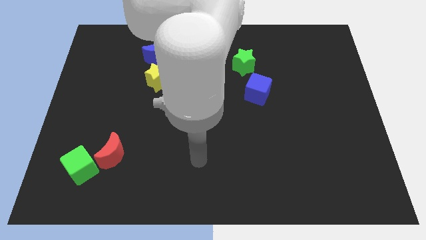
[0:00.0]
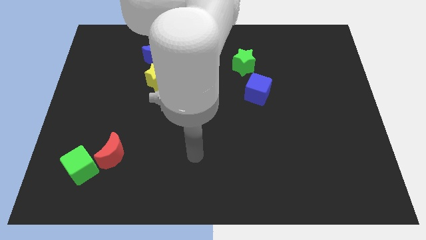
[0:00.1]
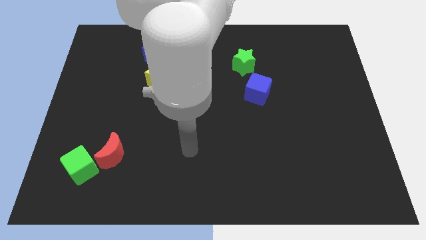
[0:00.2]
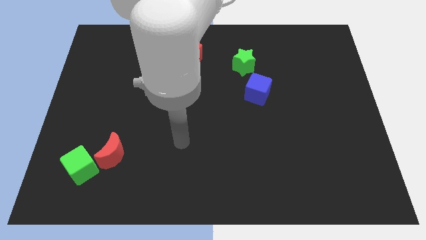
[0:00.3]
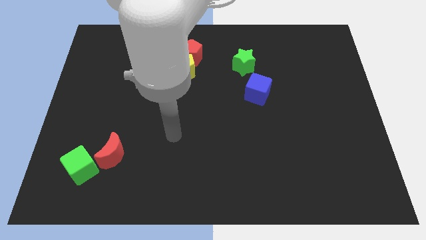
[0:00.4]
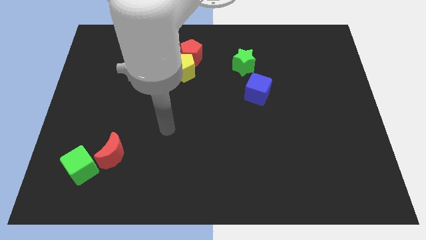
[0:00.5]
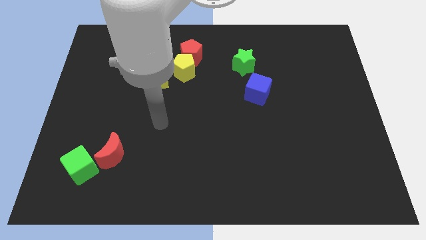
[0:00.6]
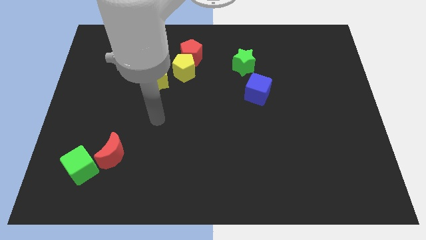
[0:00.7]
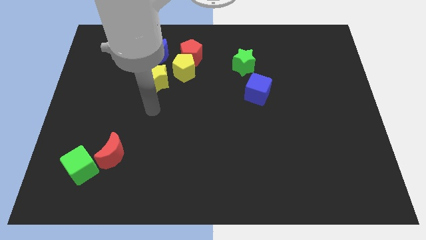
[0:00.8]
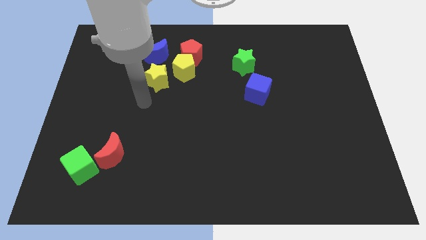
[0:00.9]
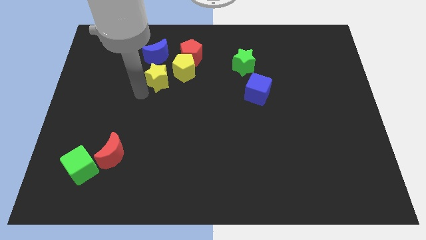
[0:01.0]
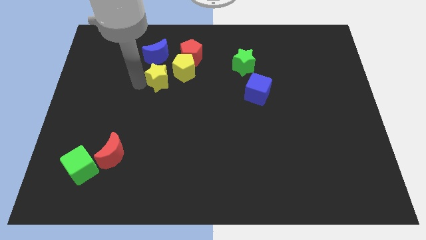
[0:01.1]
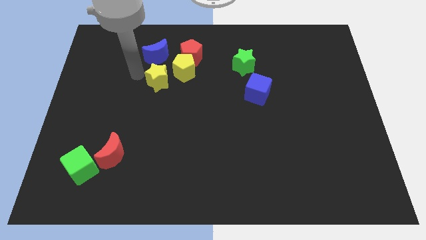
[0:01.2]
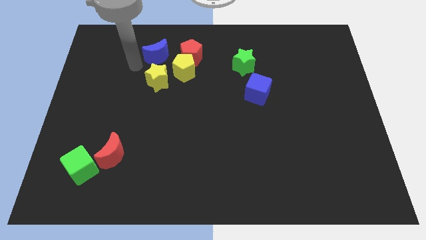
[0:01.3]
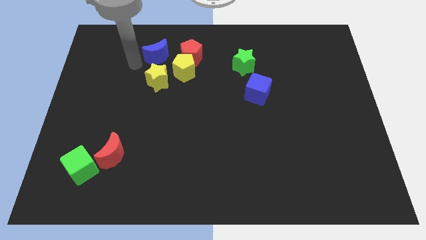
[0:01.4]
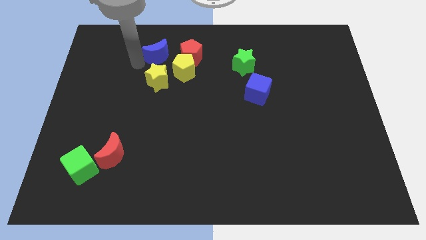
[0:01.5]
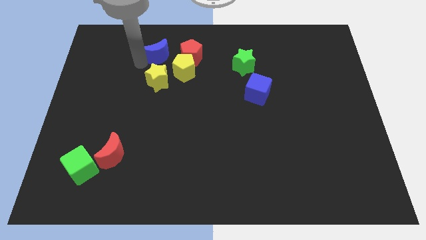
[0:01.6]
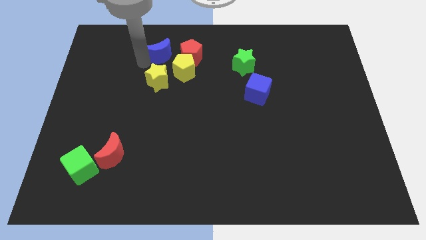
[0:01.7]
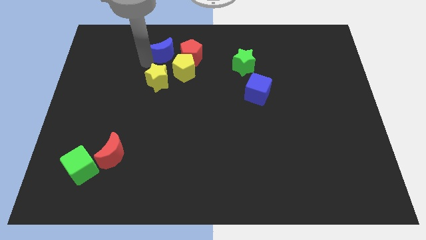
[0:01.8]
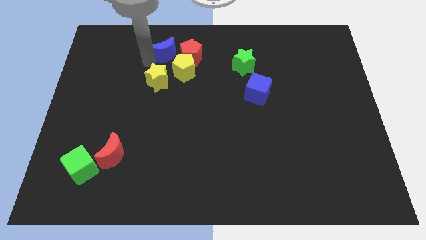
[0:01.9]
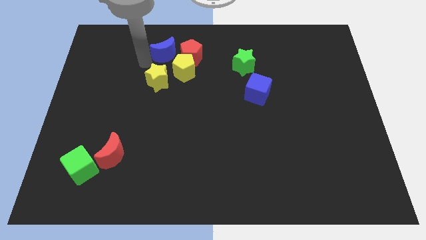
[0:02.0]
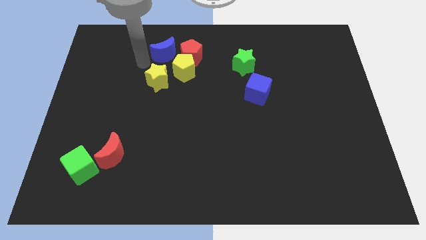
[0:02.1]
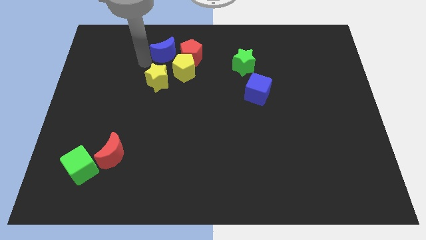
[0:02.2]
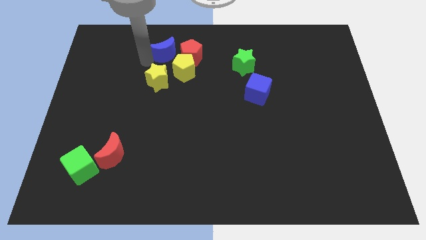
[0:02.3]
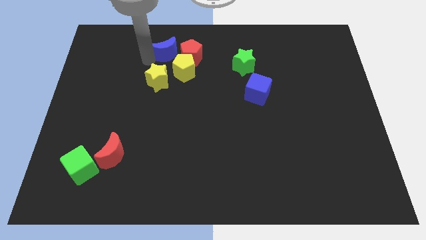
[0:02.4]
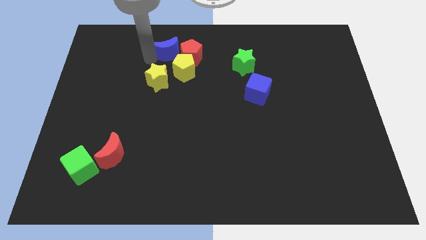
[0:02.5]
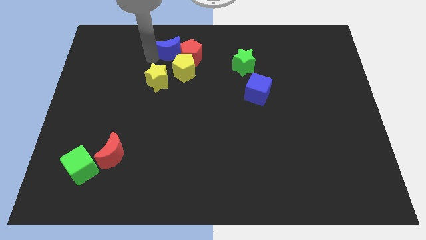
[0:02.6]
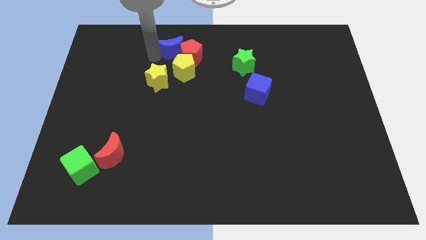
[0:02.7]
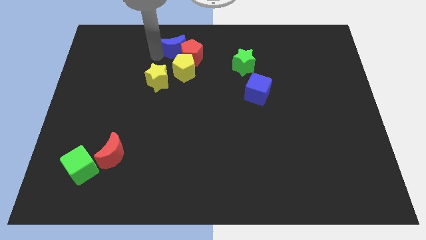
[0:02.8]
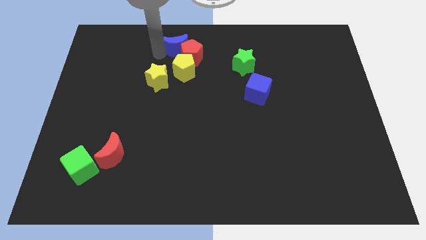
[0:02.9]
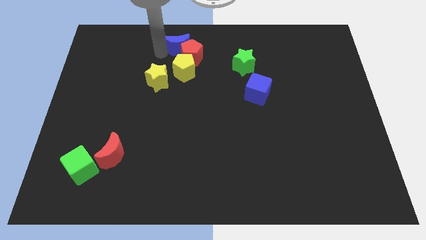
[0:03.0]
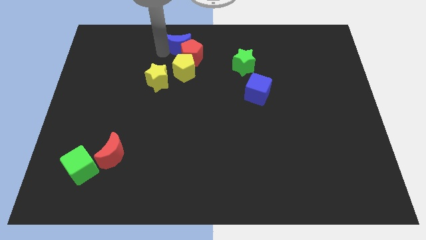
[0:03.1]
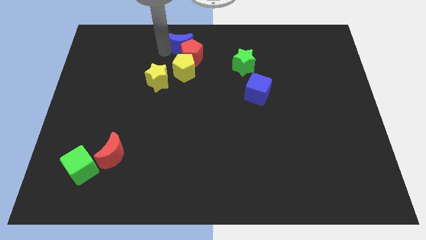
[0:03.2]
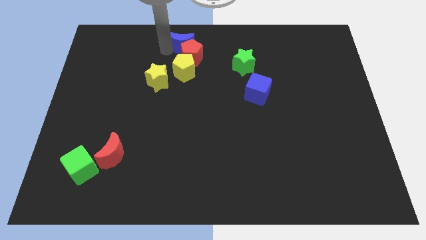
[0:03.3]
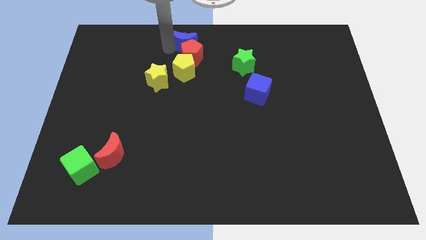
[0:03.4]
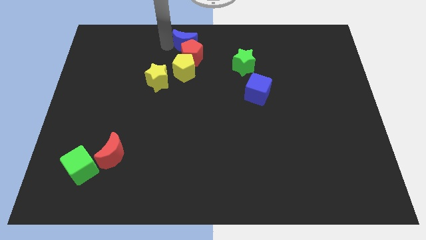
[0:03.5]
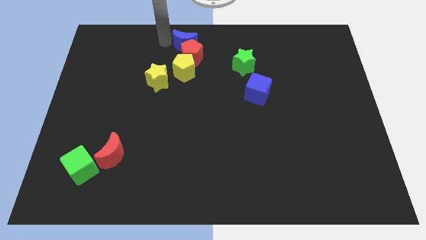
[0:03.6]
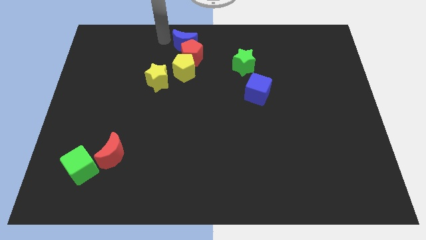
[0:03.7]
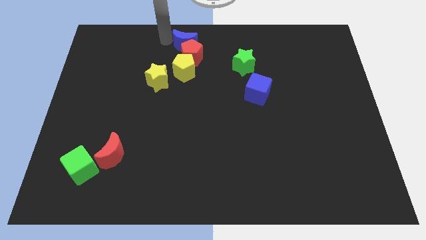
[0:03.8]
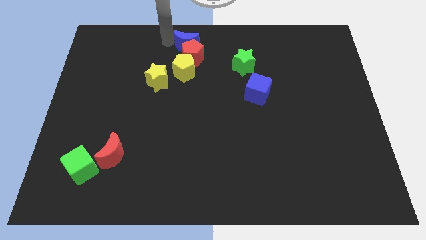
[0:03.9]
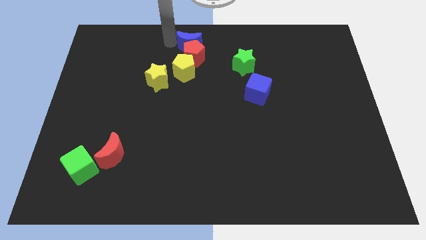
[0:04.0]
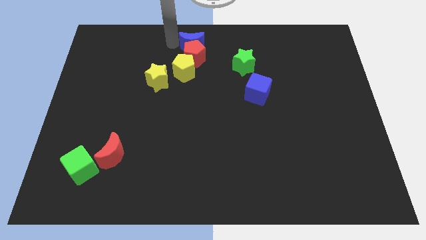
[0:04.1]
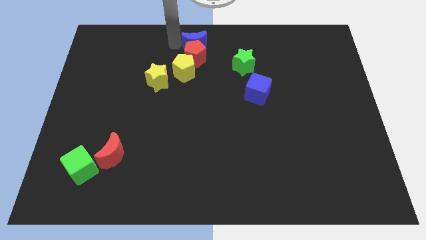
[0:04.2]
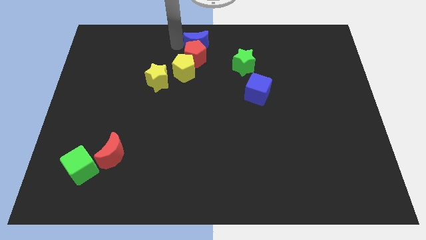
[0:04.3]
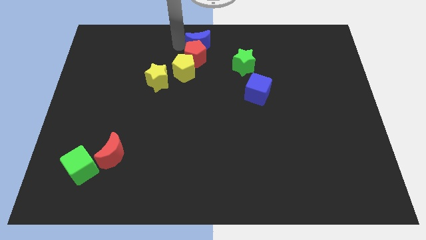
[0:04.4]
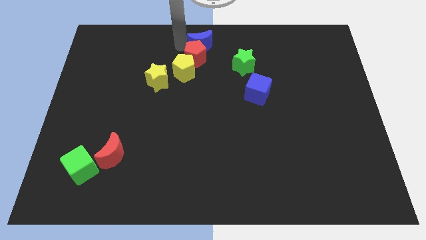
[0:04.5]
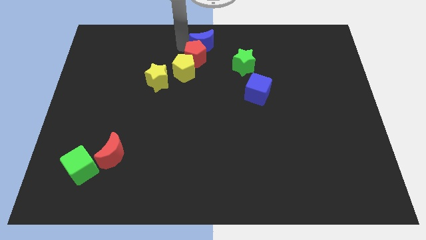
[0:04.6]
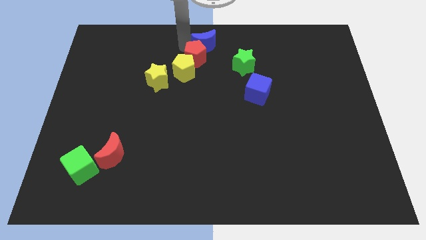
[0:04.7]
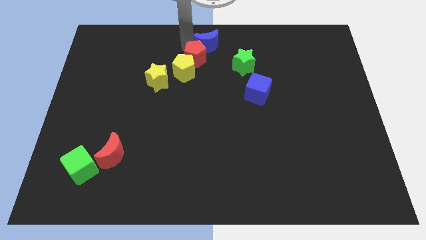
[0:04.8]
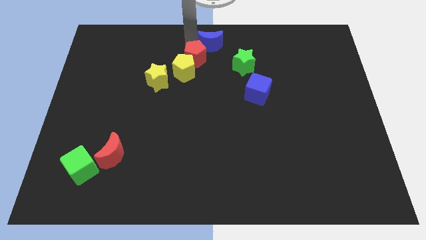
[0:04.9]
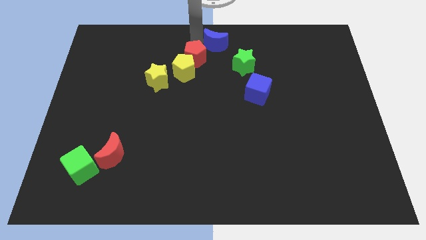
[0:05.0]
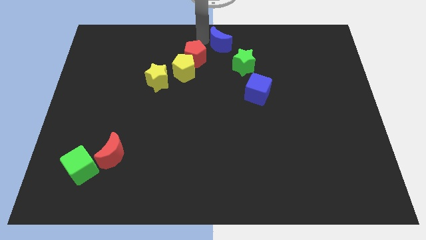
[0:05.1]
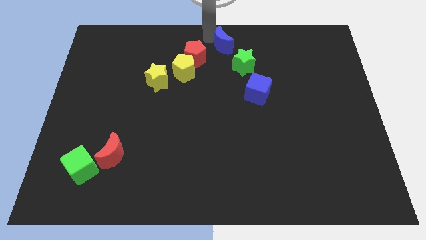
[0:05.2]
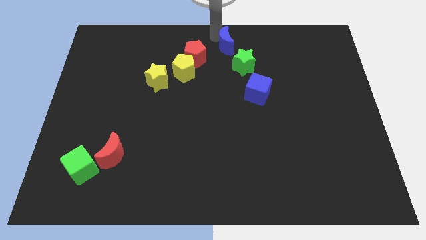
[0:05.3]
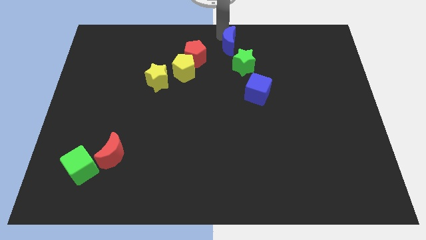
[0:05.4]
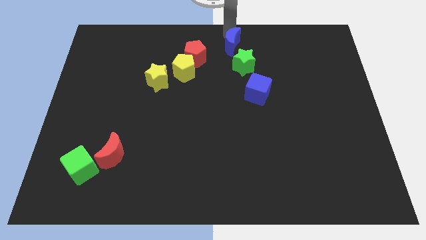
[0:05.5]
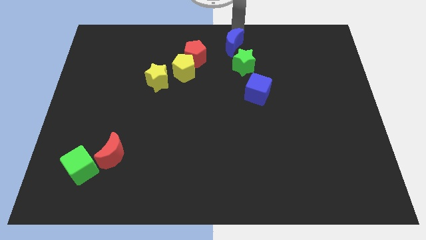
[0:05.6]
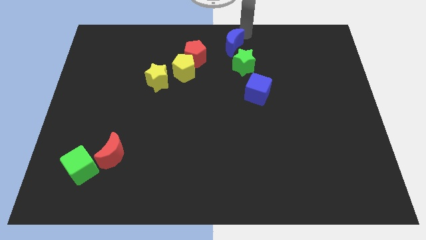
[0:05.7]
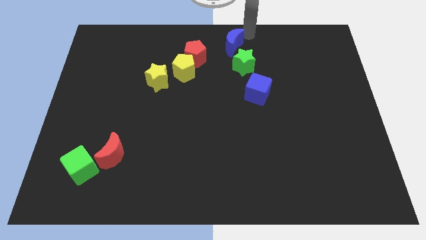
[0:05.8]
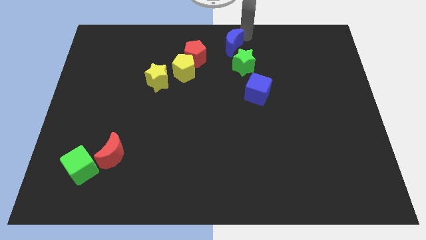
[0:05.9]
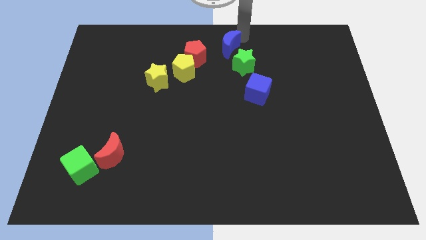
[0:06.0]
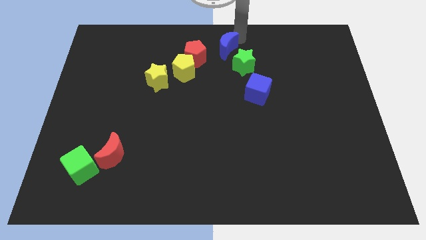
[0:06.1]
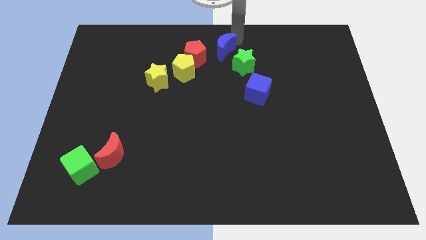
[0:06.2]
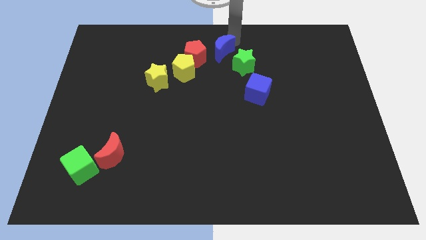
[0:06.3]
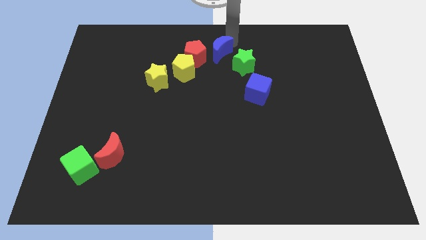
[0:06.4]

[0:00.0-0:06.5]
put the blue moon just left of the green star
